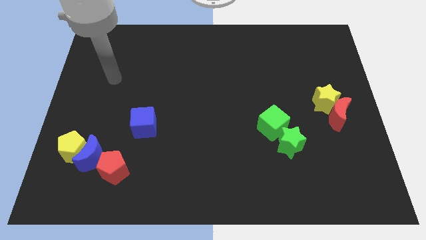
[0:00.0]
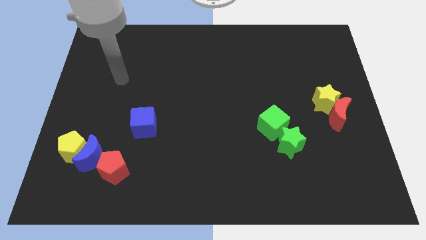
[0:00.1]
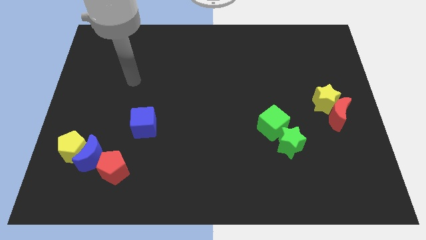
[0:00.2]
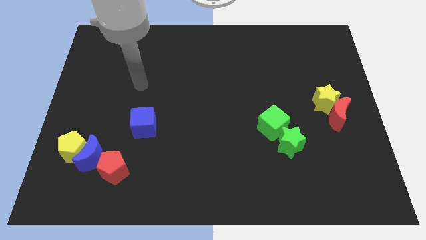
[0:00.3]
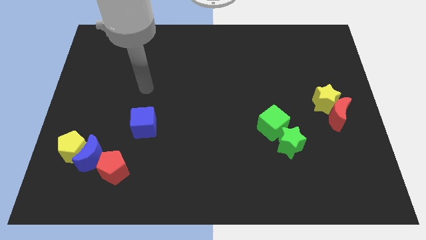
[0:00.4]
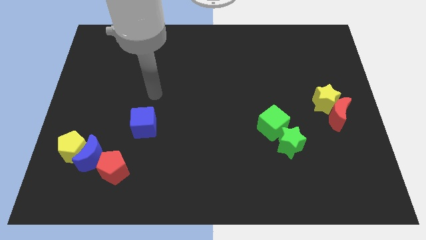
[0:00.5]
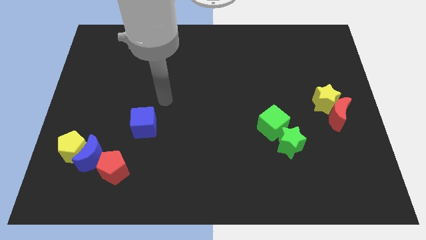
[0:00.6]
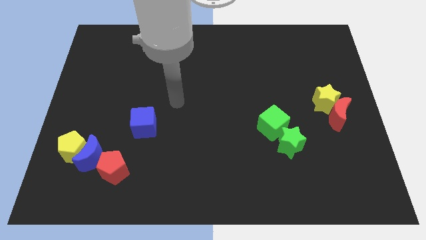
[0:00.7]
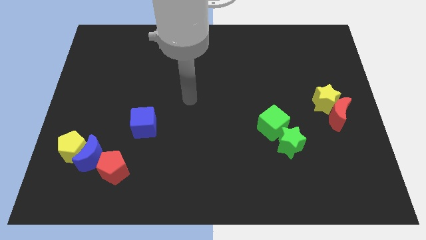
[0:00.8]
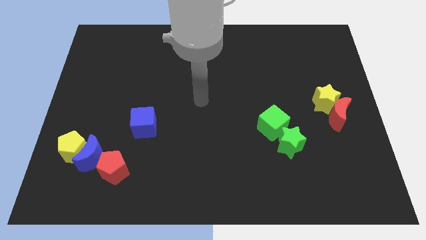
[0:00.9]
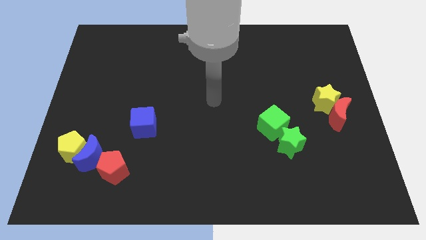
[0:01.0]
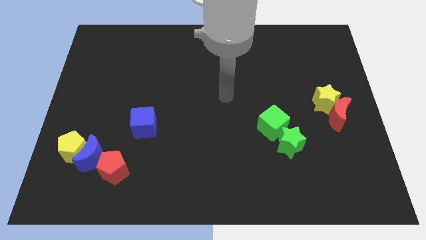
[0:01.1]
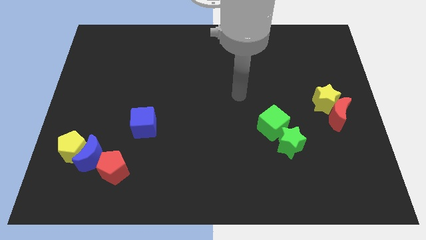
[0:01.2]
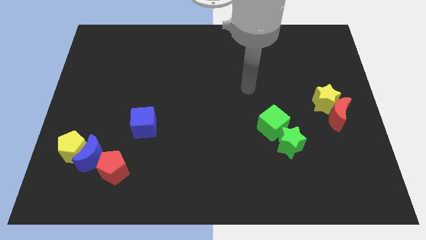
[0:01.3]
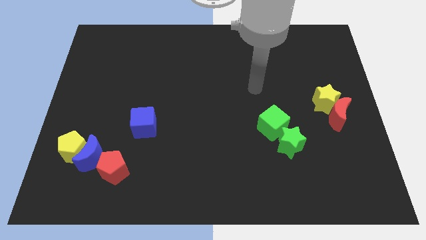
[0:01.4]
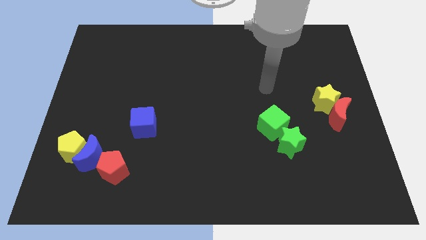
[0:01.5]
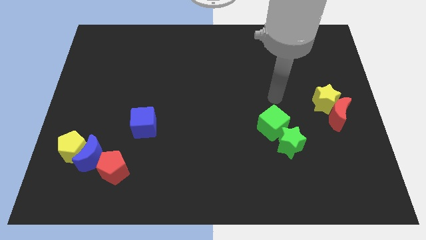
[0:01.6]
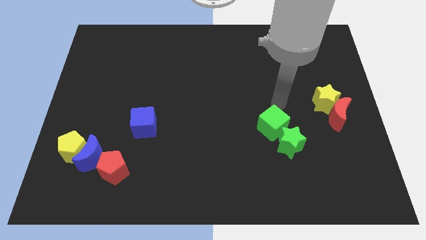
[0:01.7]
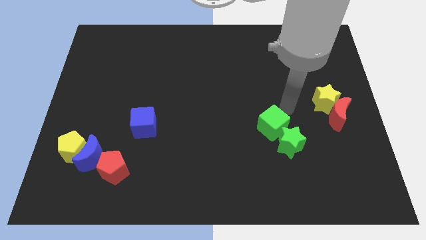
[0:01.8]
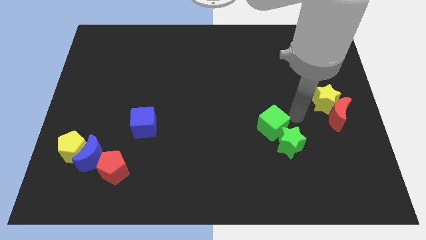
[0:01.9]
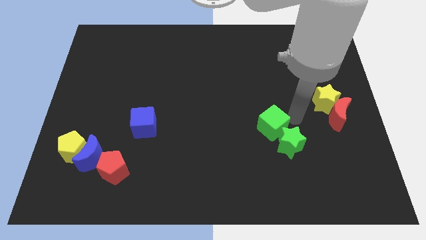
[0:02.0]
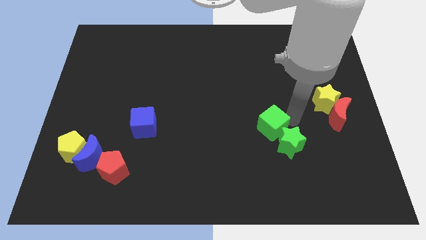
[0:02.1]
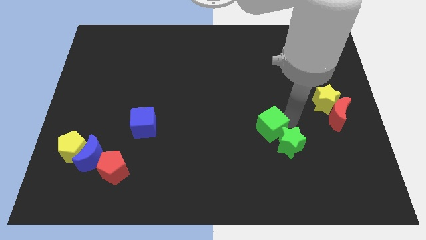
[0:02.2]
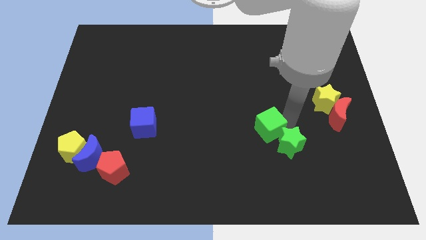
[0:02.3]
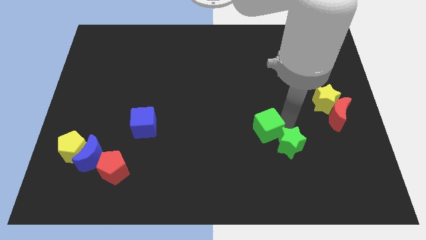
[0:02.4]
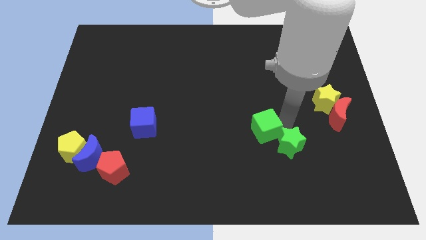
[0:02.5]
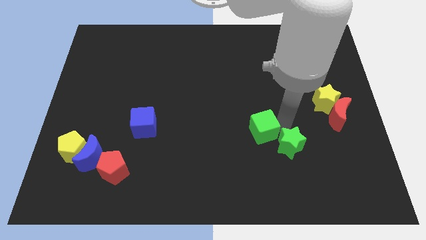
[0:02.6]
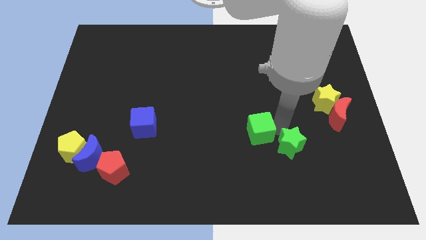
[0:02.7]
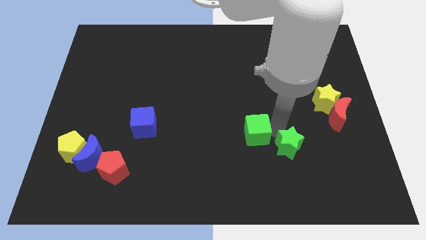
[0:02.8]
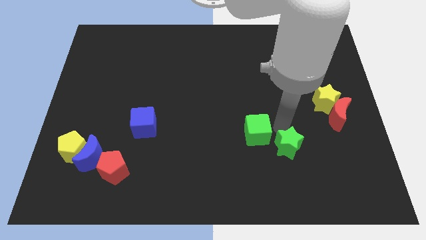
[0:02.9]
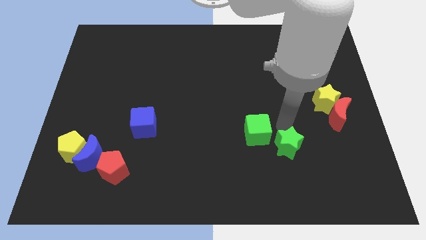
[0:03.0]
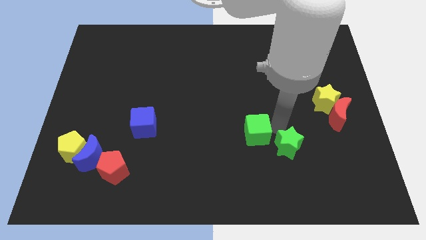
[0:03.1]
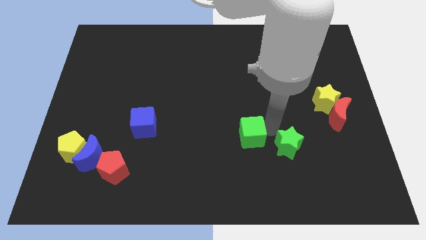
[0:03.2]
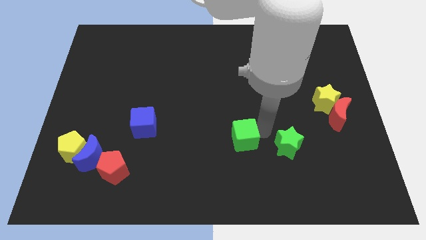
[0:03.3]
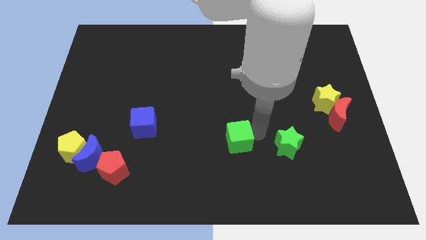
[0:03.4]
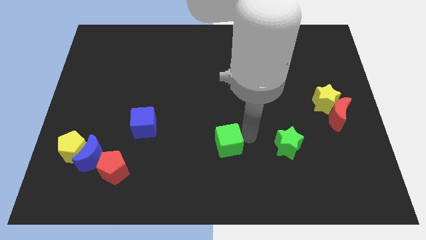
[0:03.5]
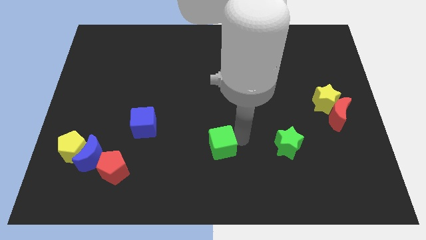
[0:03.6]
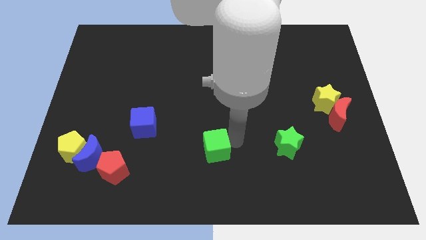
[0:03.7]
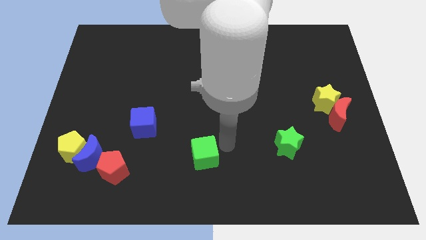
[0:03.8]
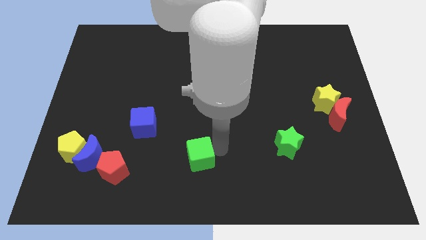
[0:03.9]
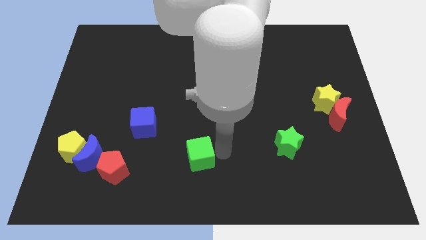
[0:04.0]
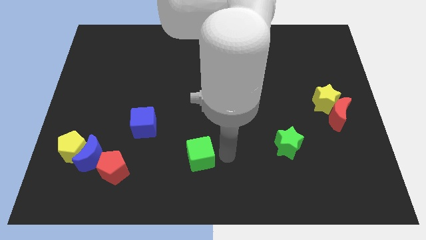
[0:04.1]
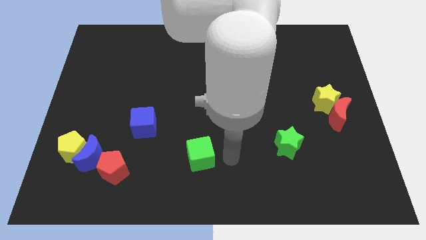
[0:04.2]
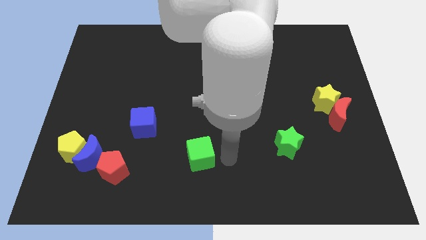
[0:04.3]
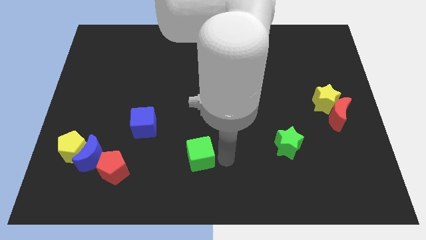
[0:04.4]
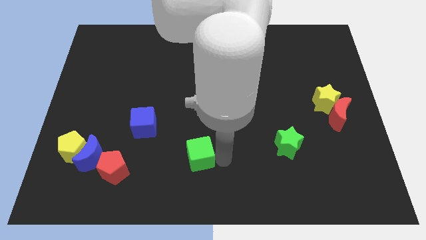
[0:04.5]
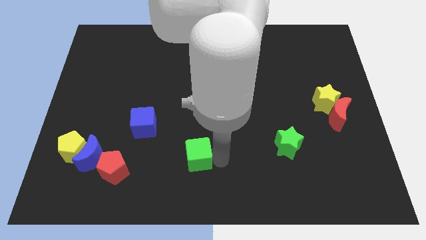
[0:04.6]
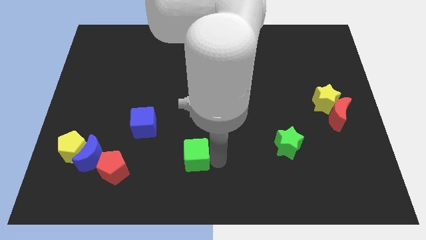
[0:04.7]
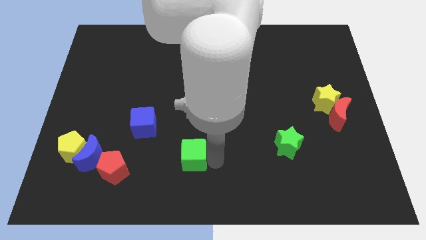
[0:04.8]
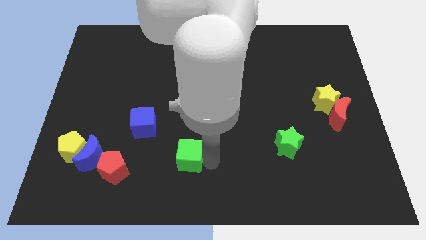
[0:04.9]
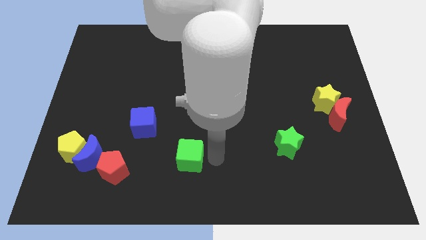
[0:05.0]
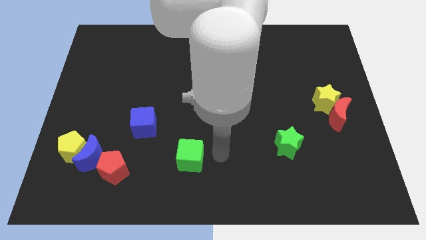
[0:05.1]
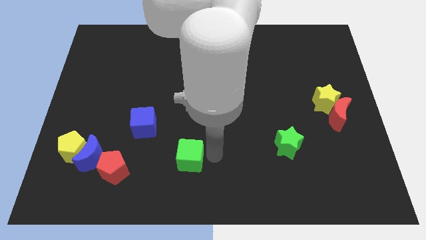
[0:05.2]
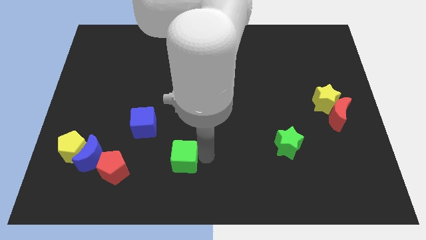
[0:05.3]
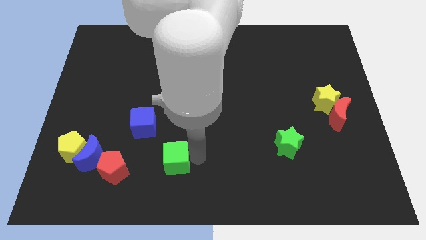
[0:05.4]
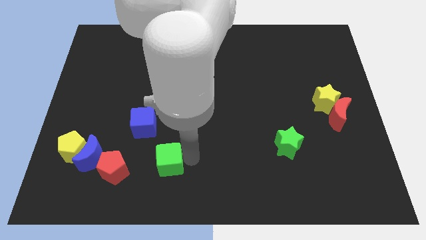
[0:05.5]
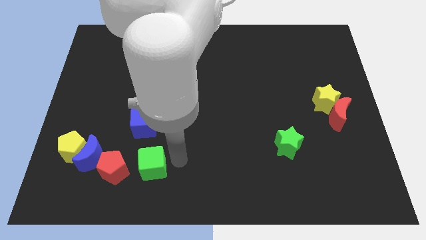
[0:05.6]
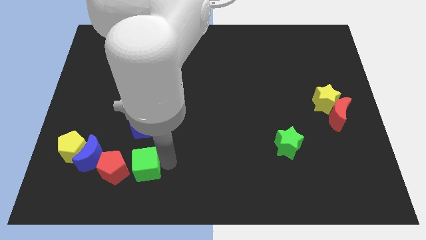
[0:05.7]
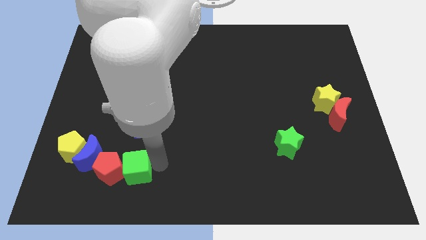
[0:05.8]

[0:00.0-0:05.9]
move the green cube next to the red pentagon

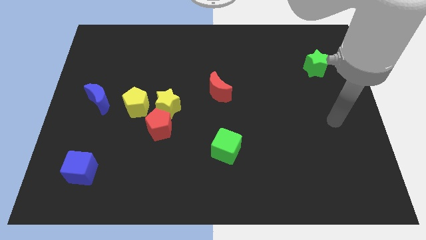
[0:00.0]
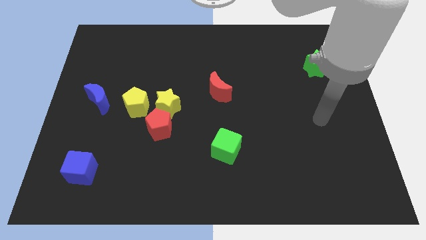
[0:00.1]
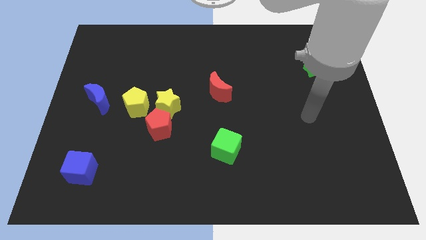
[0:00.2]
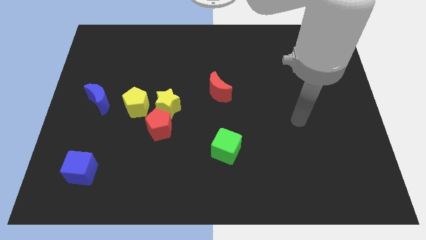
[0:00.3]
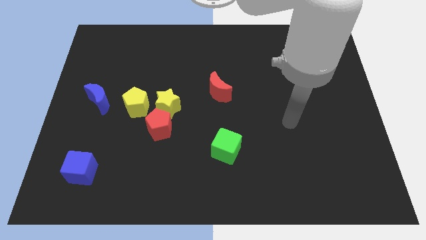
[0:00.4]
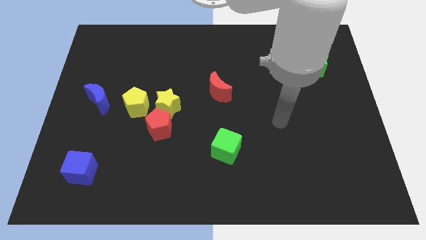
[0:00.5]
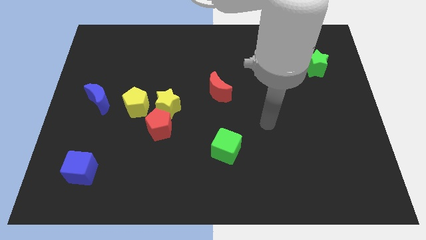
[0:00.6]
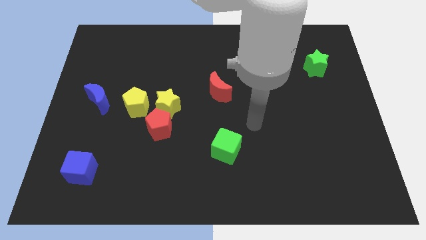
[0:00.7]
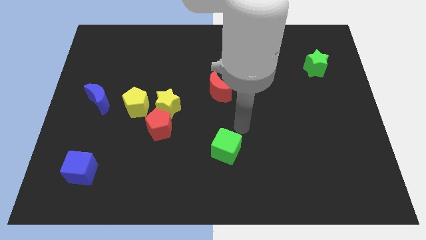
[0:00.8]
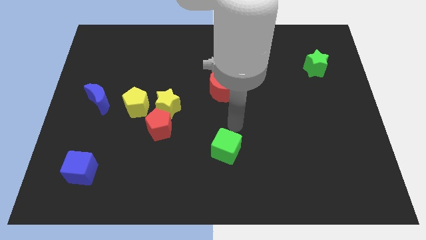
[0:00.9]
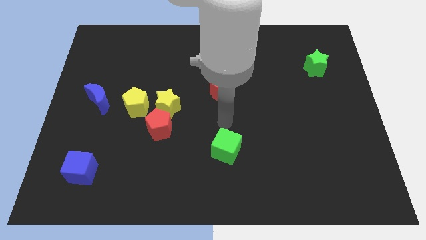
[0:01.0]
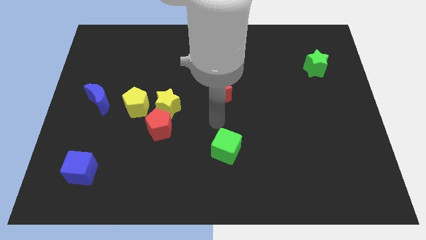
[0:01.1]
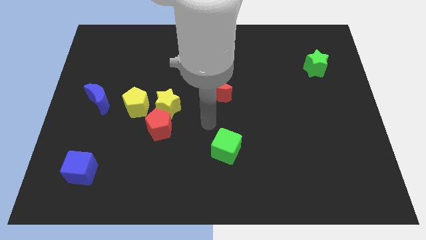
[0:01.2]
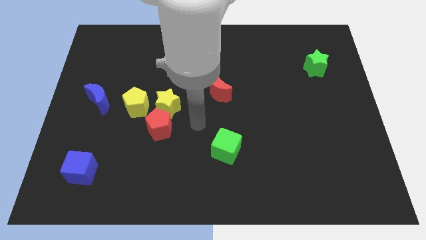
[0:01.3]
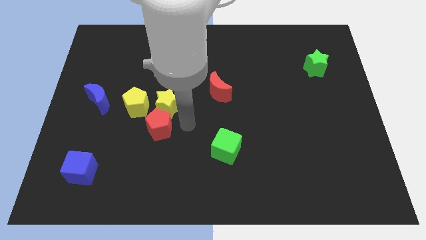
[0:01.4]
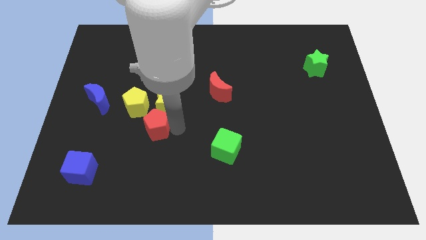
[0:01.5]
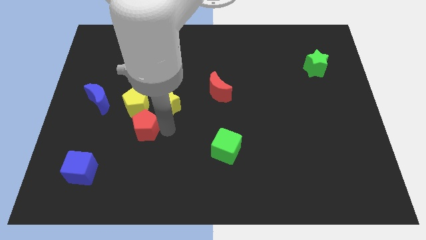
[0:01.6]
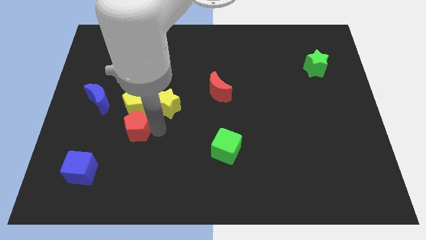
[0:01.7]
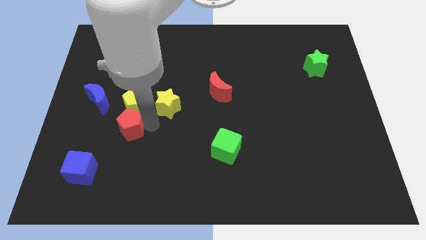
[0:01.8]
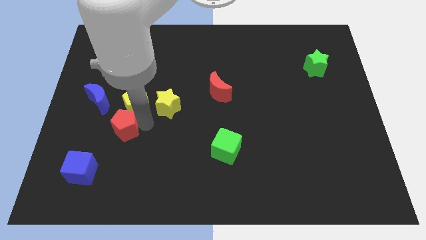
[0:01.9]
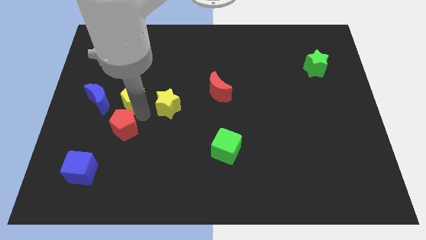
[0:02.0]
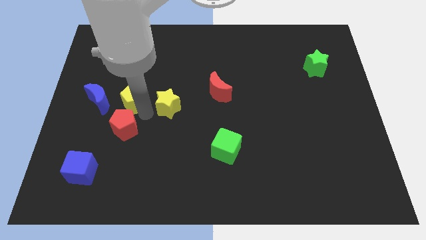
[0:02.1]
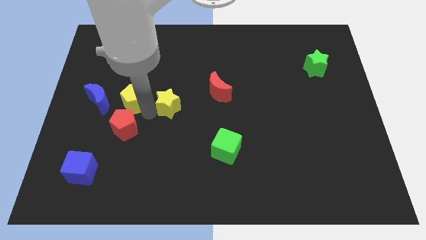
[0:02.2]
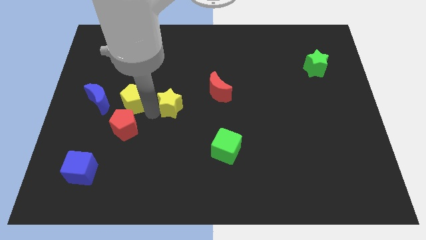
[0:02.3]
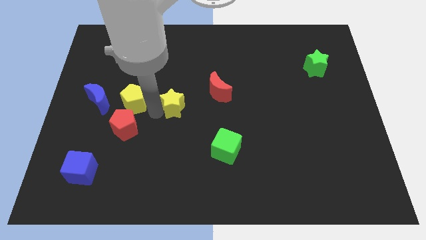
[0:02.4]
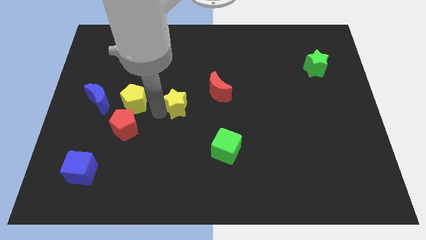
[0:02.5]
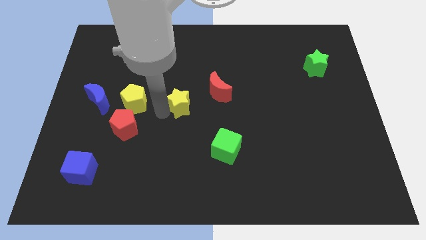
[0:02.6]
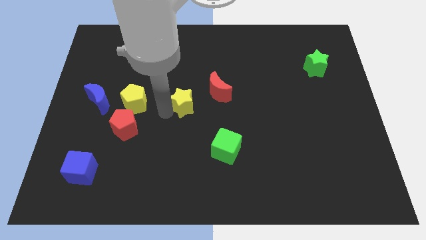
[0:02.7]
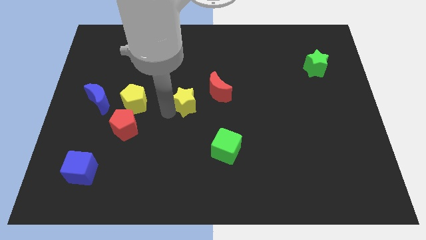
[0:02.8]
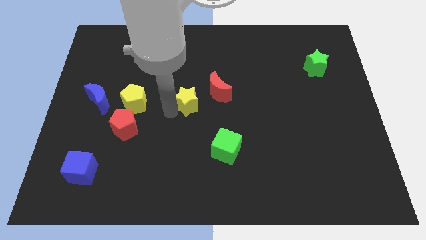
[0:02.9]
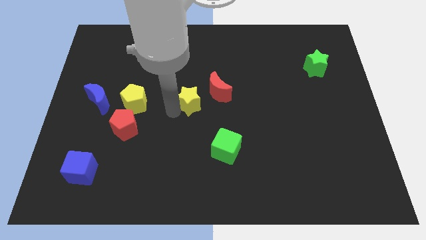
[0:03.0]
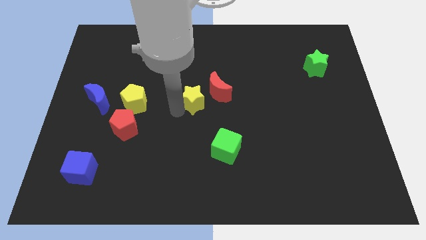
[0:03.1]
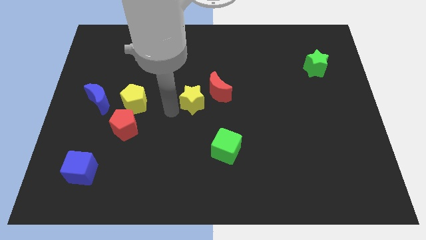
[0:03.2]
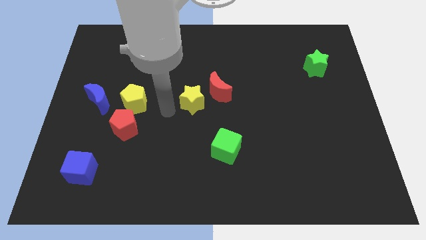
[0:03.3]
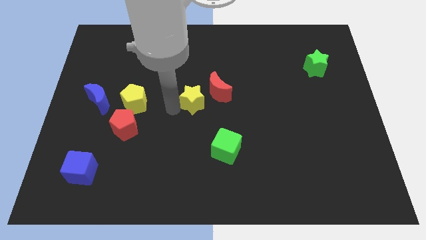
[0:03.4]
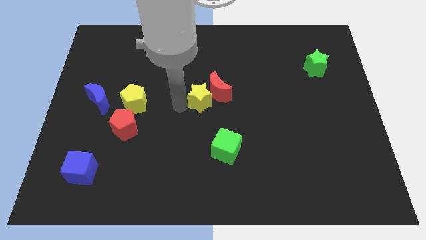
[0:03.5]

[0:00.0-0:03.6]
slide the yellow star to the red moon
